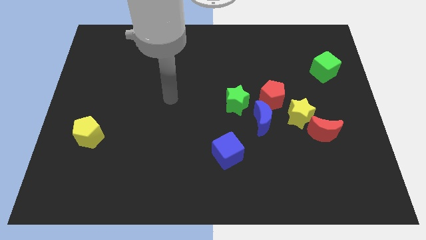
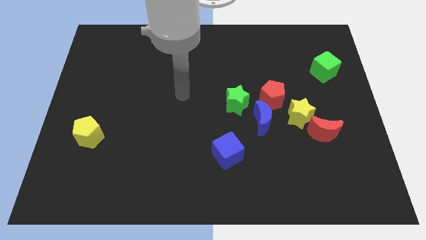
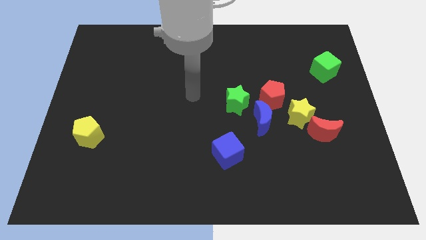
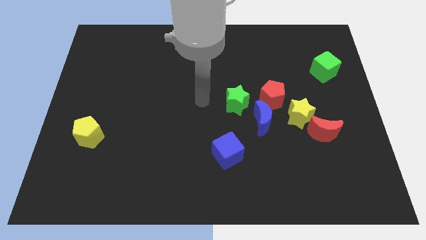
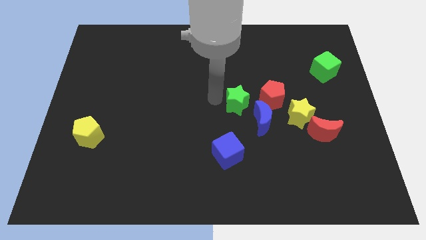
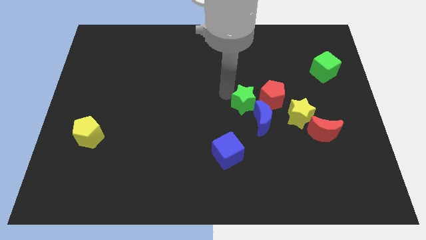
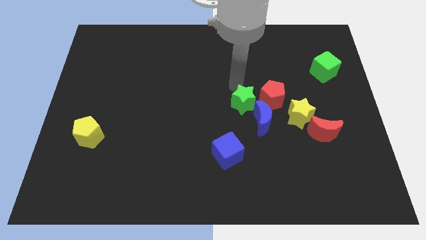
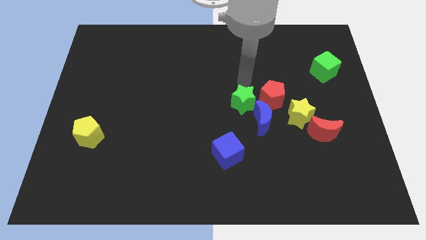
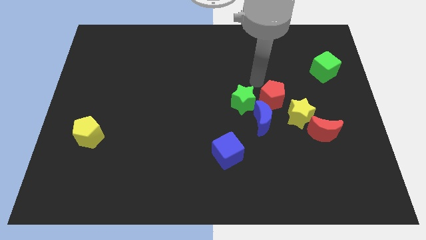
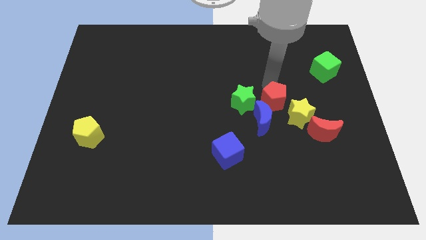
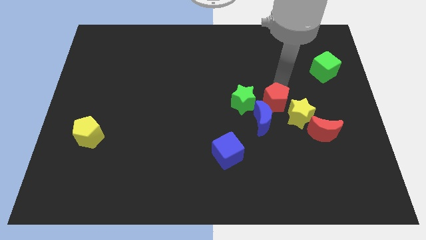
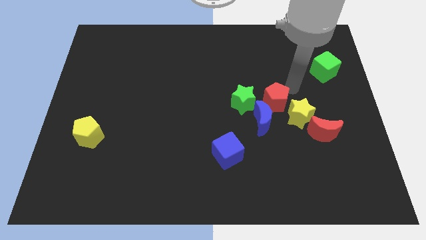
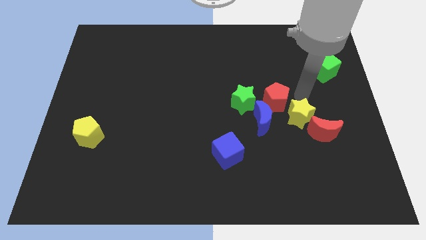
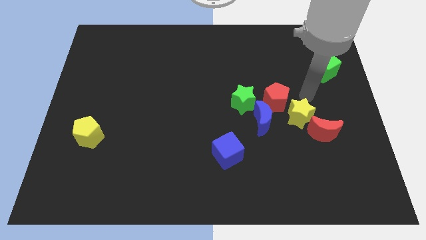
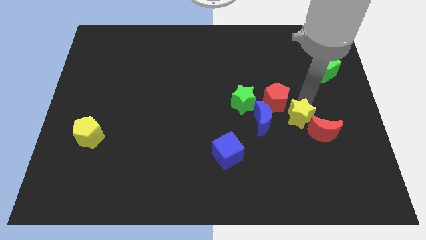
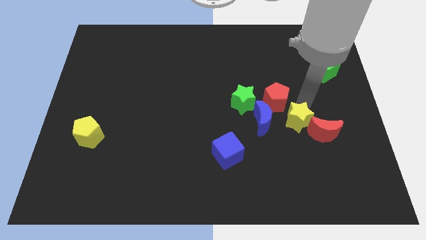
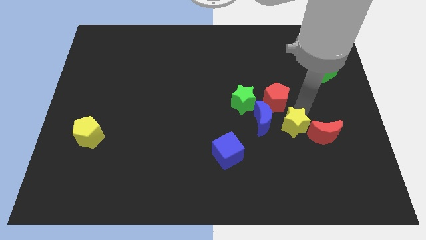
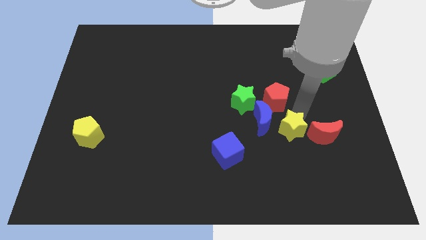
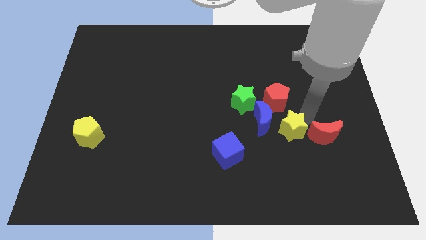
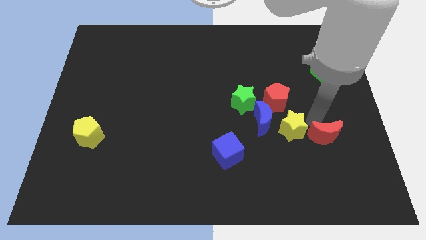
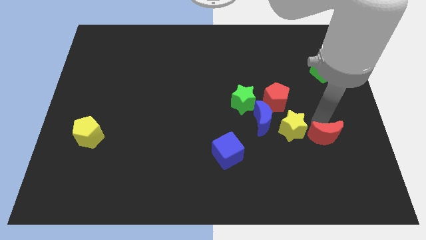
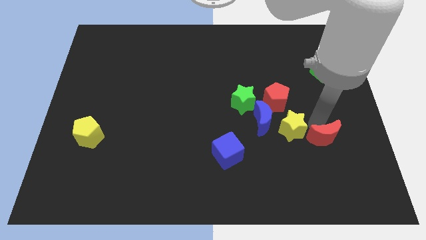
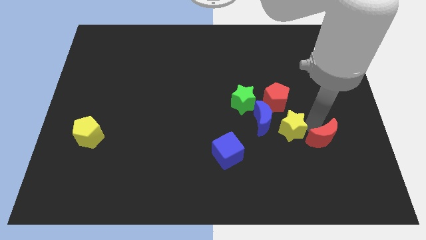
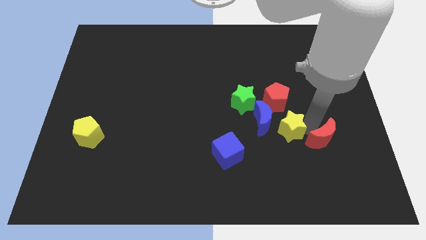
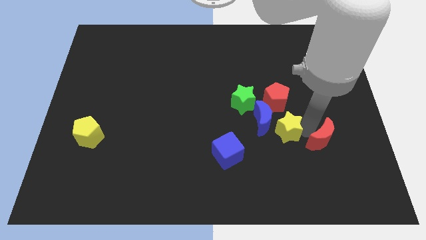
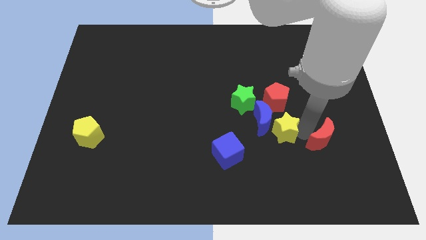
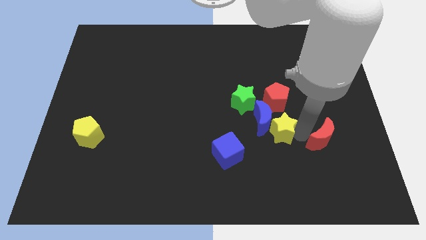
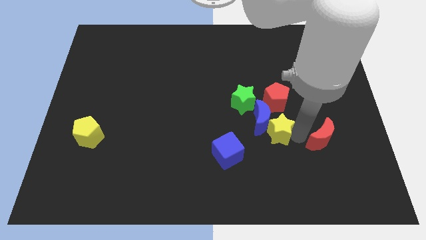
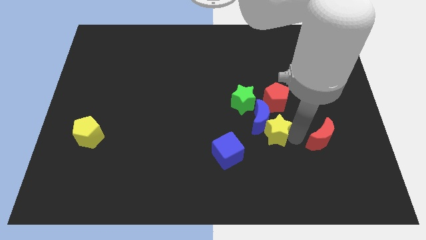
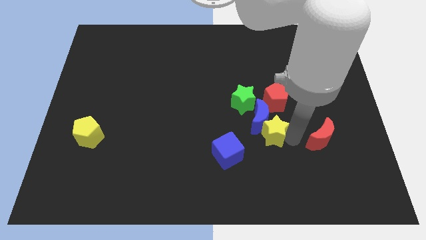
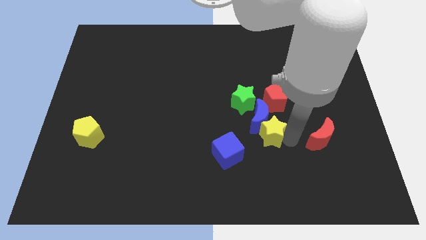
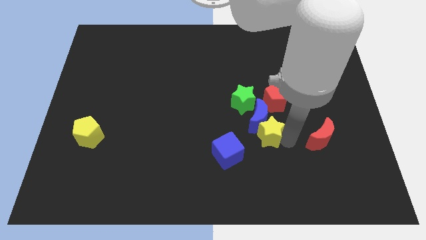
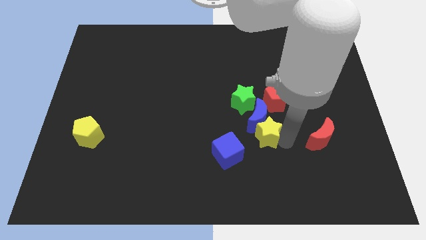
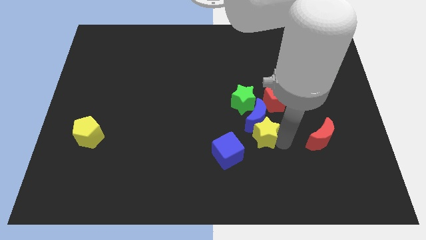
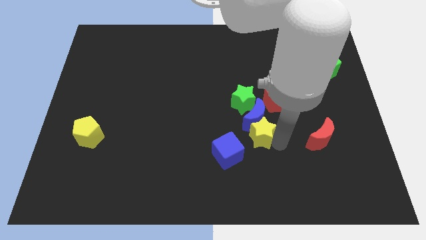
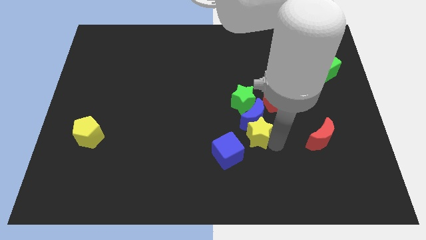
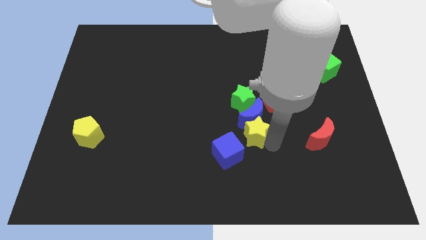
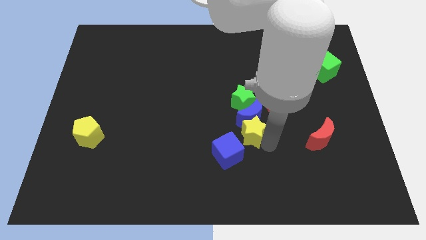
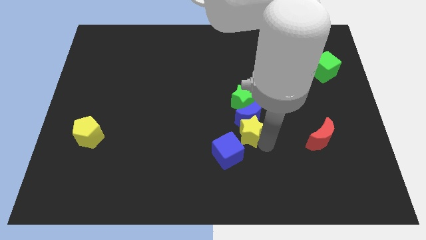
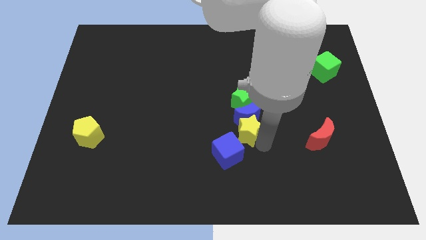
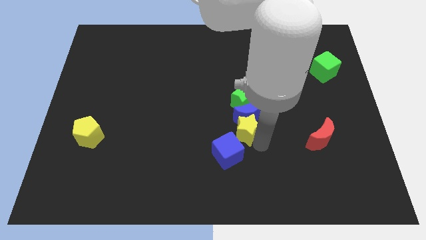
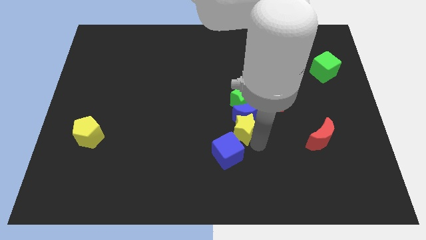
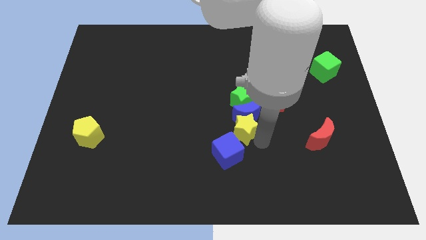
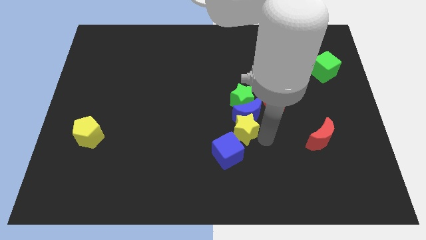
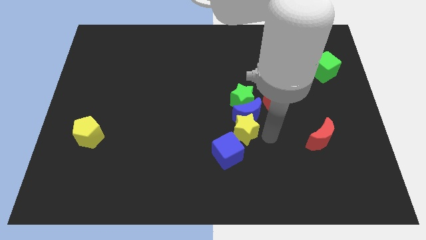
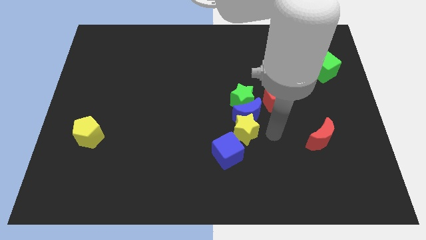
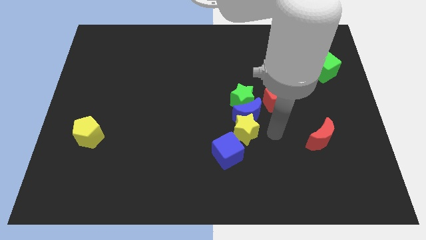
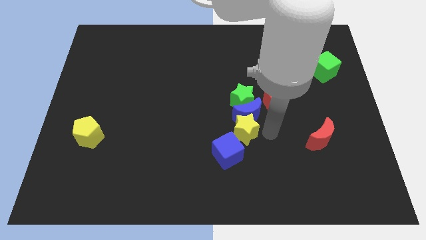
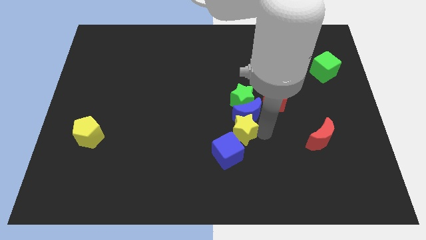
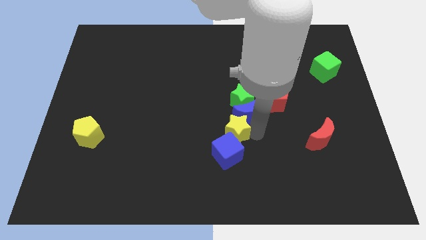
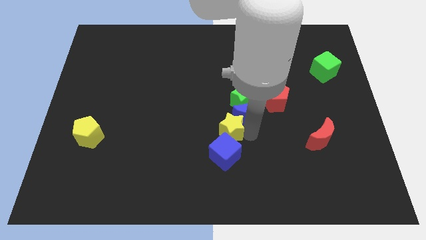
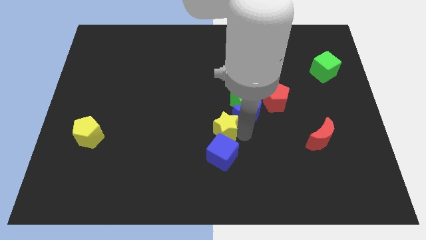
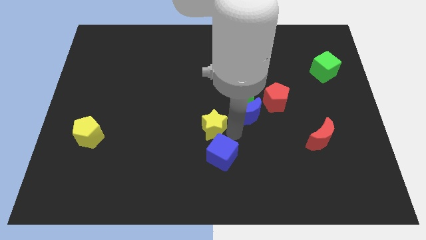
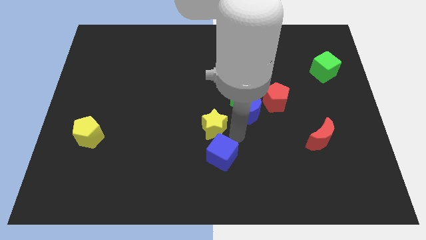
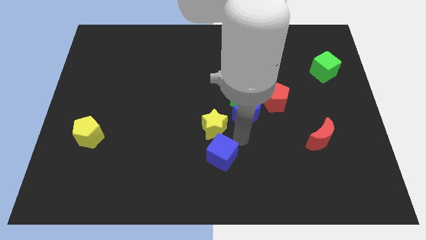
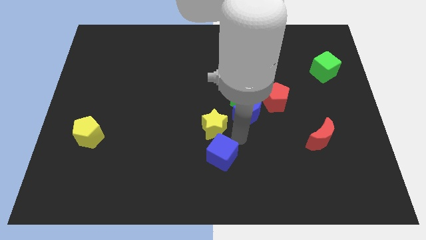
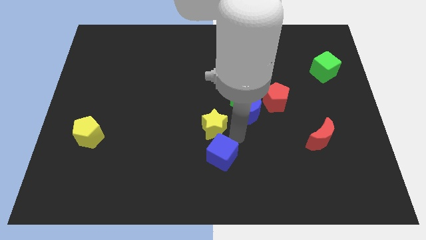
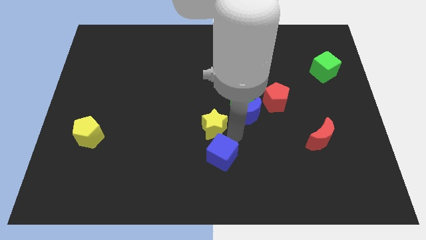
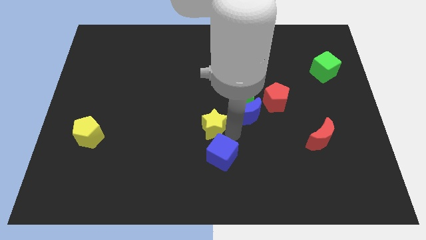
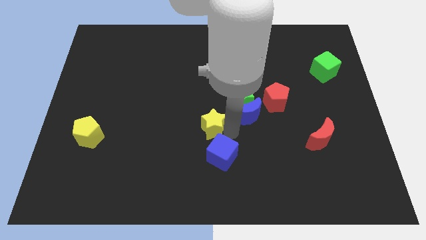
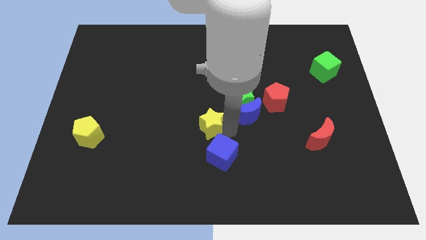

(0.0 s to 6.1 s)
push the yellow star to the left

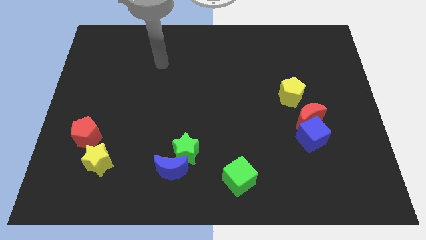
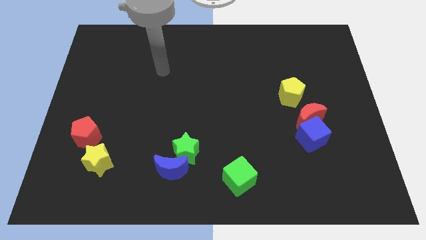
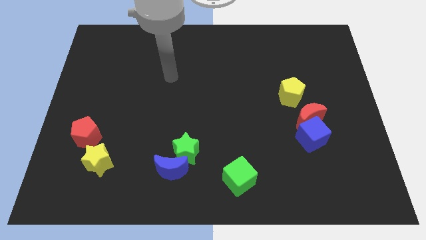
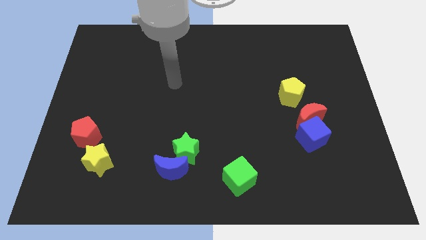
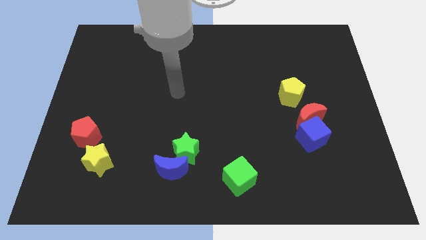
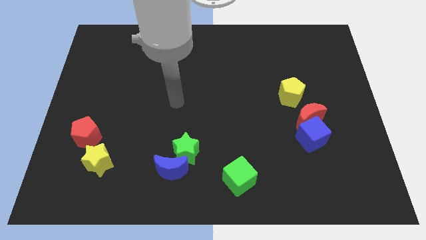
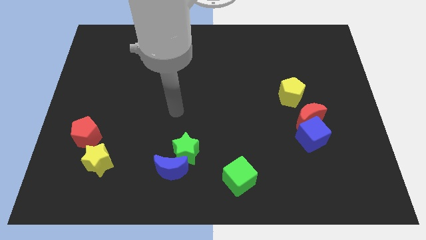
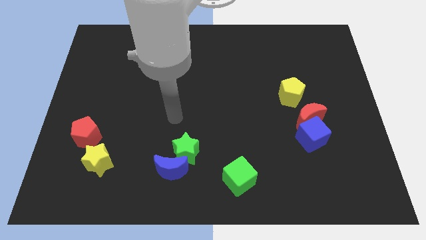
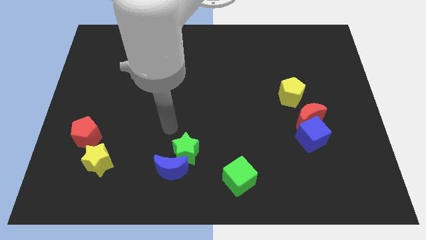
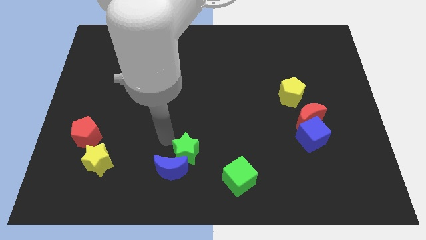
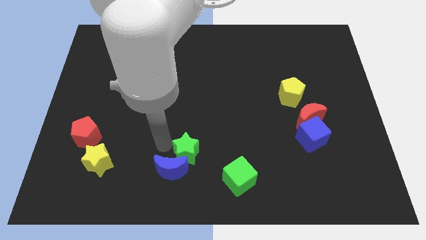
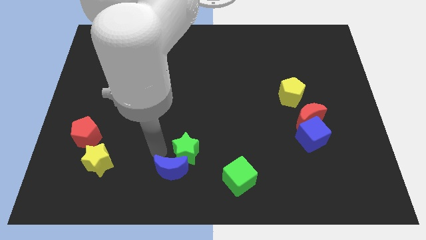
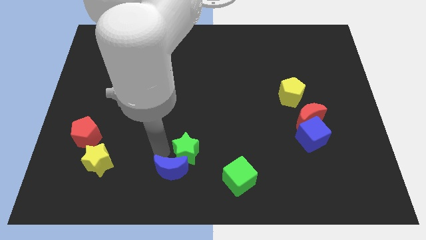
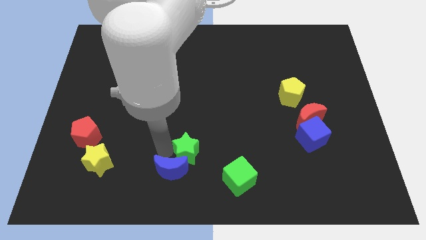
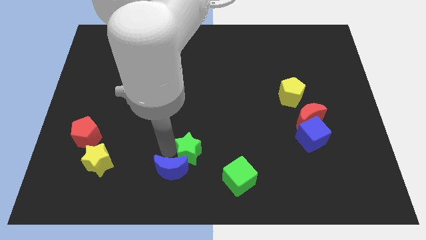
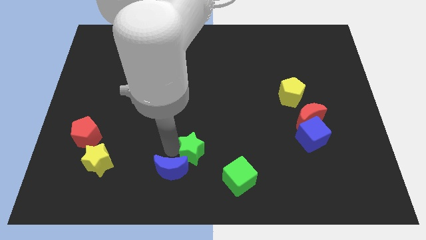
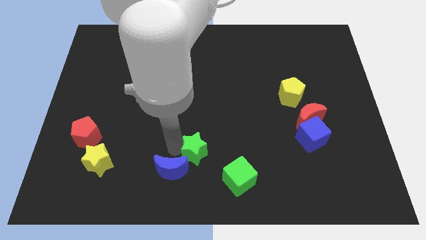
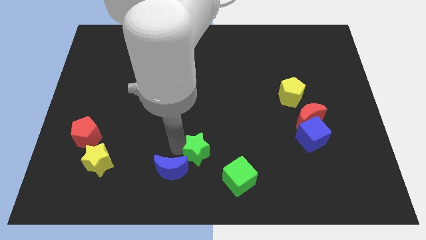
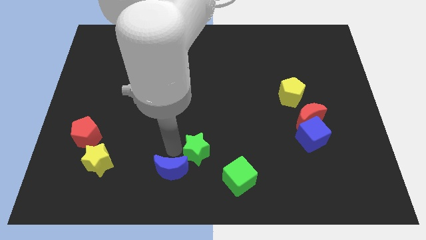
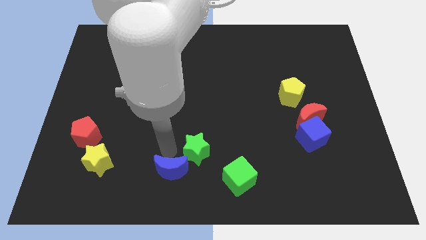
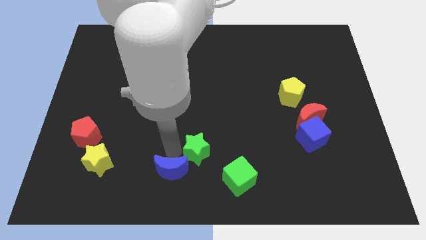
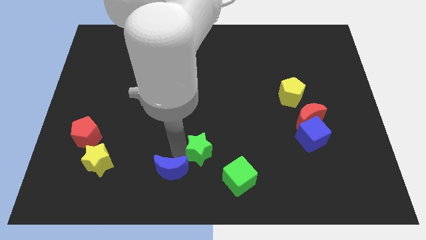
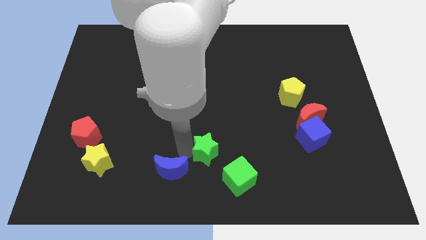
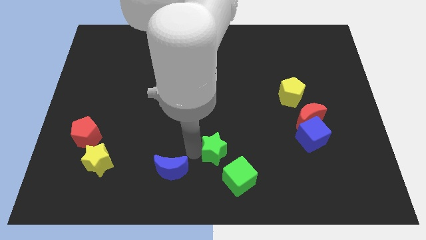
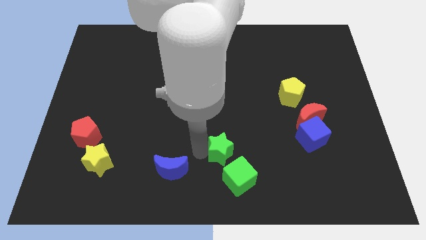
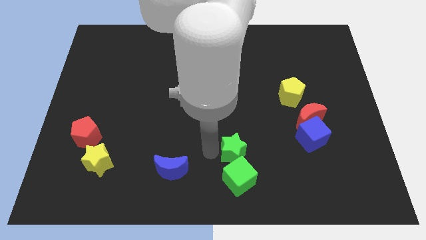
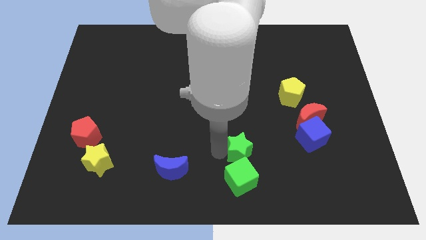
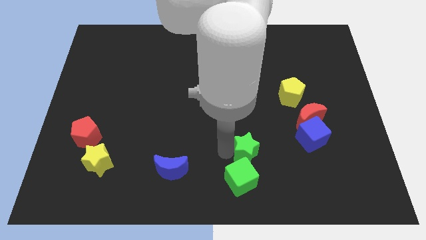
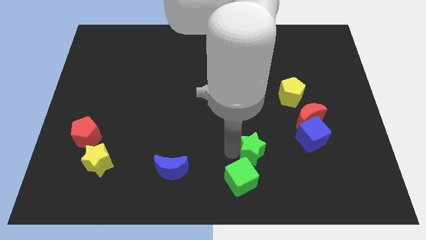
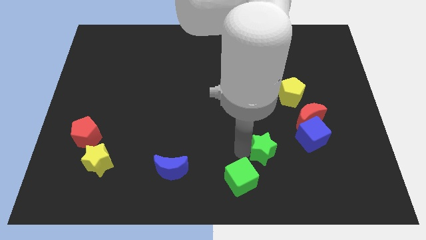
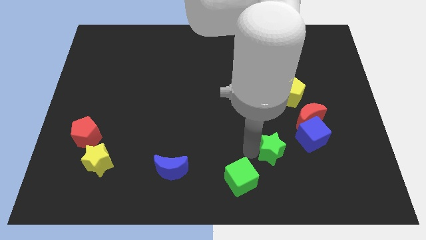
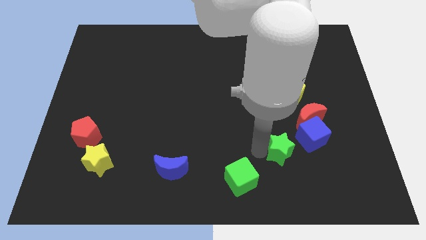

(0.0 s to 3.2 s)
push the green star right
